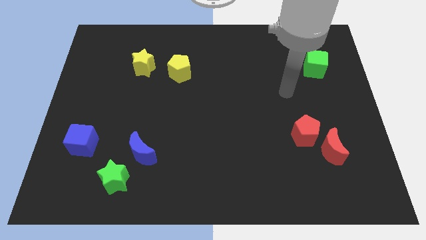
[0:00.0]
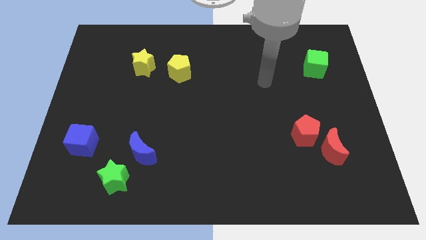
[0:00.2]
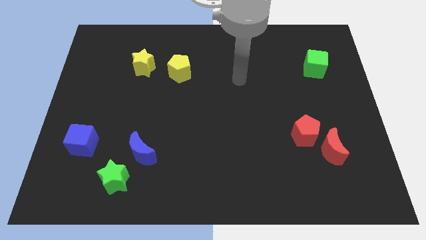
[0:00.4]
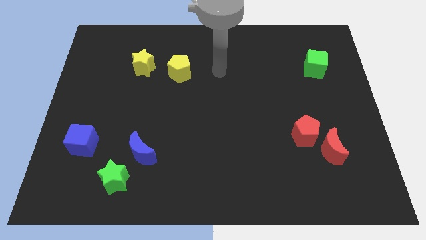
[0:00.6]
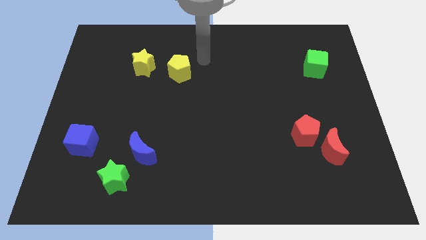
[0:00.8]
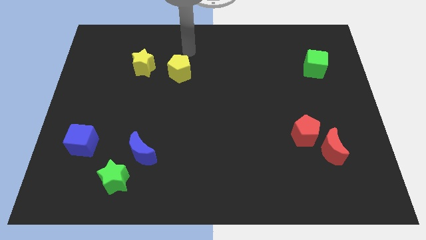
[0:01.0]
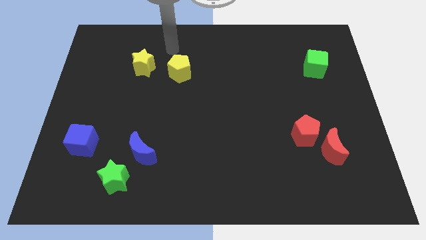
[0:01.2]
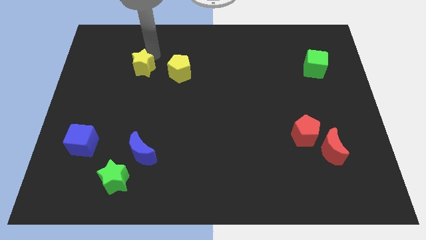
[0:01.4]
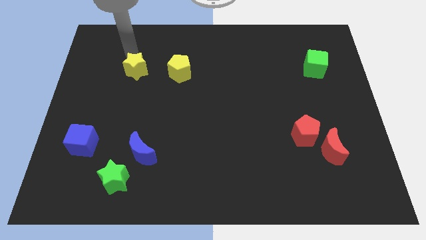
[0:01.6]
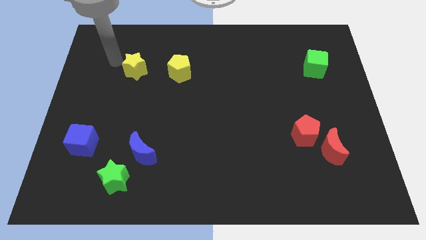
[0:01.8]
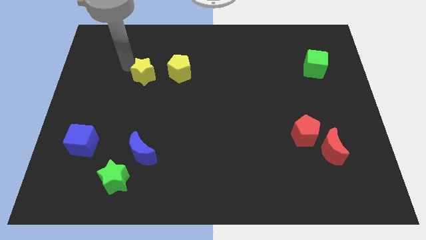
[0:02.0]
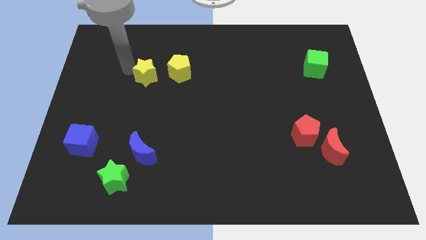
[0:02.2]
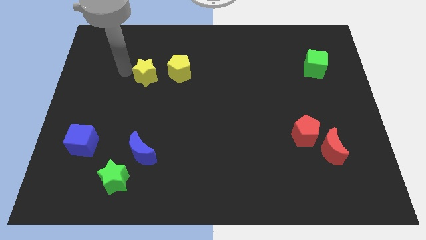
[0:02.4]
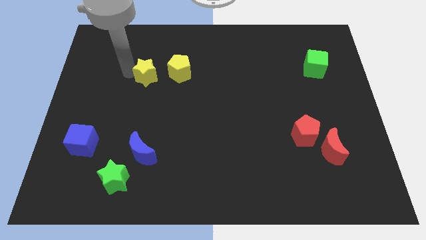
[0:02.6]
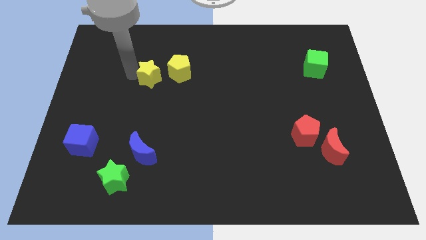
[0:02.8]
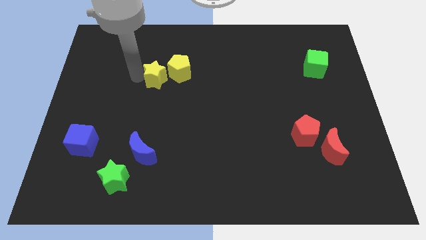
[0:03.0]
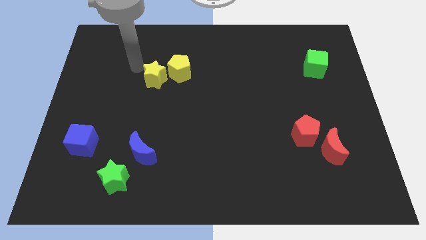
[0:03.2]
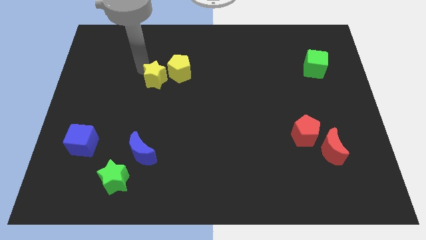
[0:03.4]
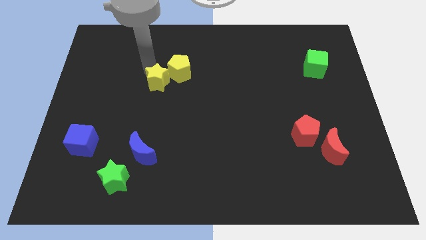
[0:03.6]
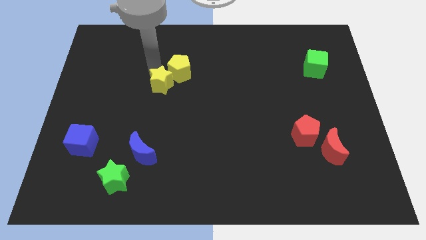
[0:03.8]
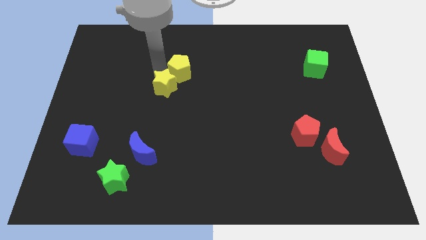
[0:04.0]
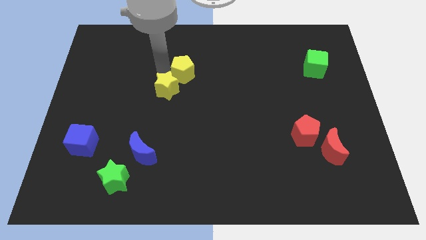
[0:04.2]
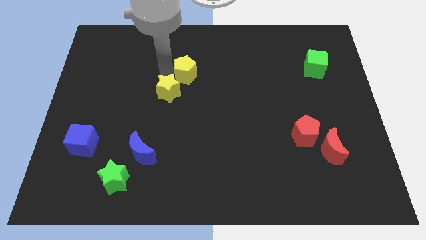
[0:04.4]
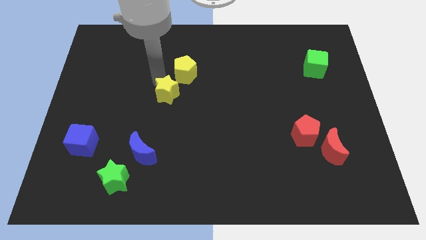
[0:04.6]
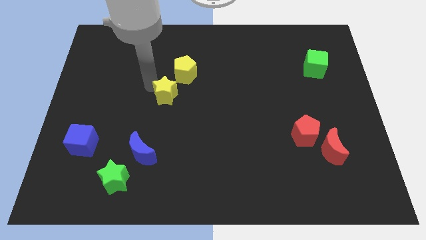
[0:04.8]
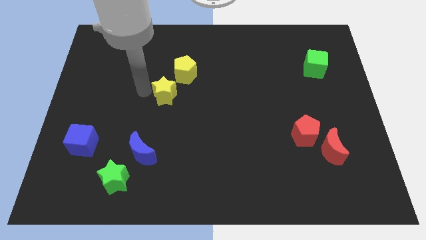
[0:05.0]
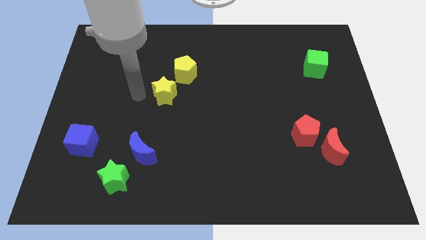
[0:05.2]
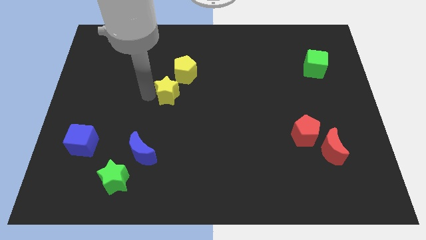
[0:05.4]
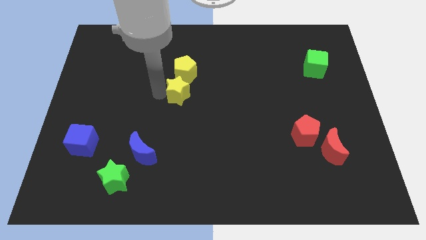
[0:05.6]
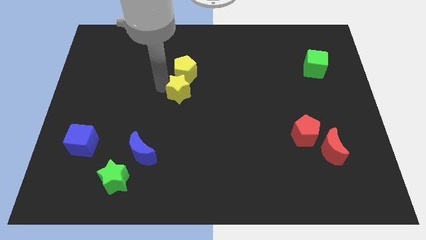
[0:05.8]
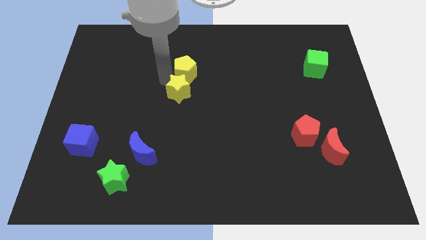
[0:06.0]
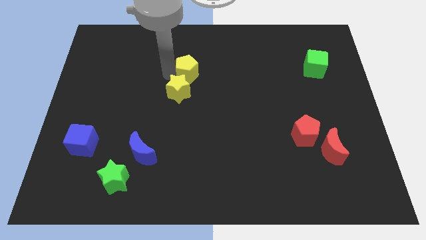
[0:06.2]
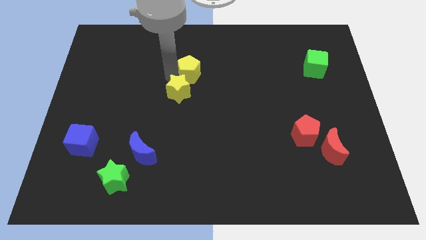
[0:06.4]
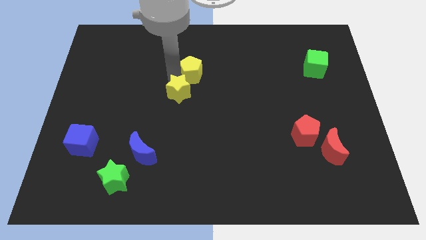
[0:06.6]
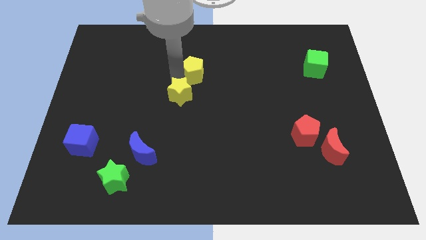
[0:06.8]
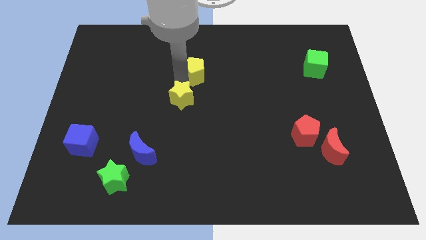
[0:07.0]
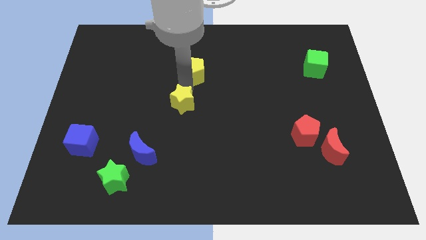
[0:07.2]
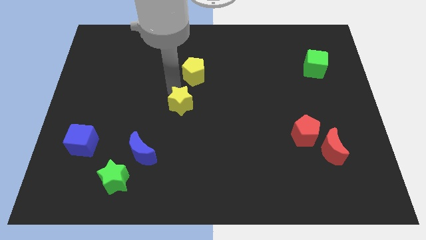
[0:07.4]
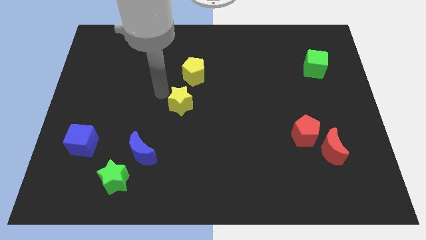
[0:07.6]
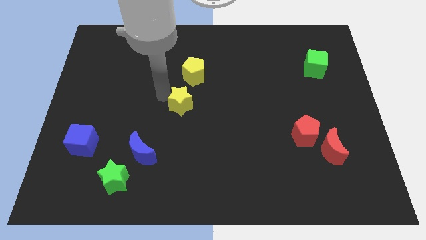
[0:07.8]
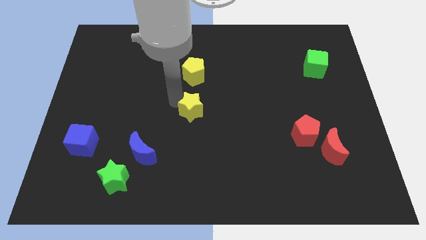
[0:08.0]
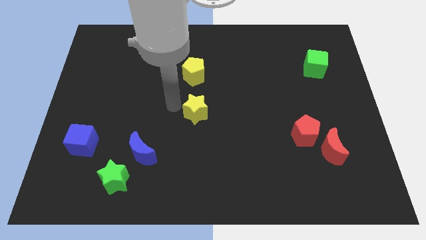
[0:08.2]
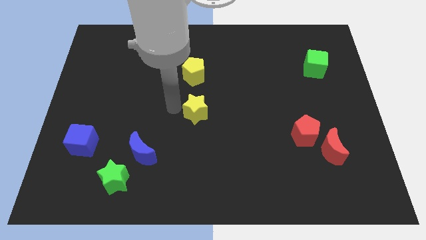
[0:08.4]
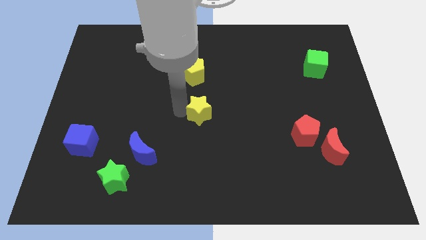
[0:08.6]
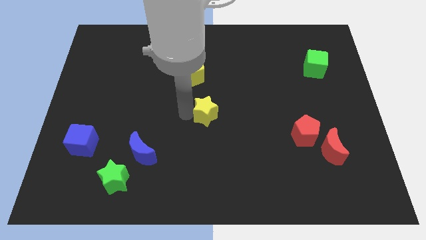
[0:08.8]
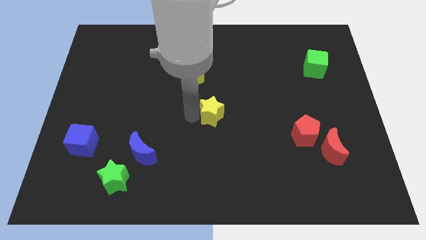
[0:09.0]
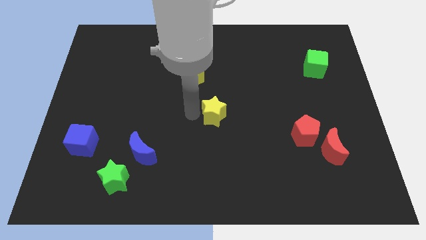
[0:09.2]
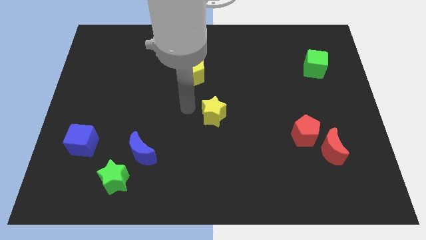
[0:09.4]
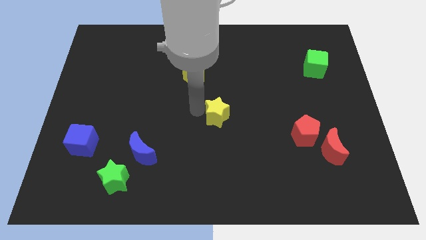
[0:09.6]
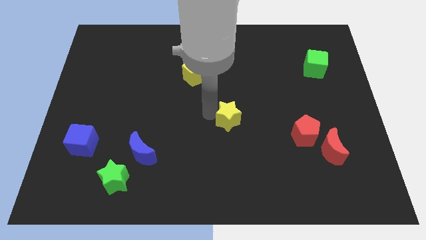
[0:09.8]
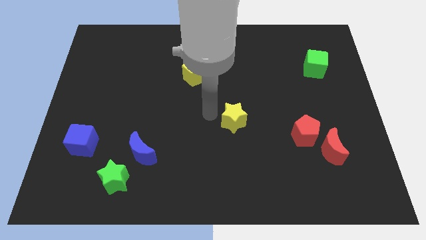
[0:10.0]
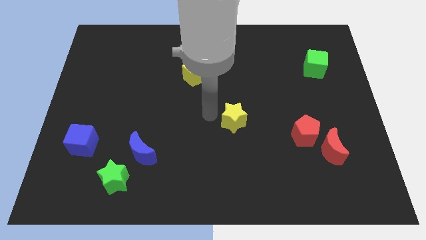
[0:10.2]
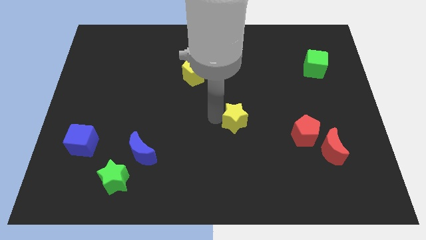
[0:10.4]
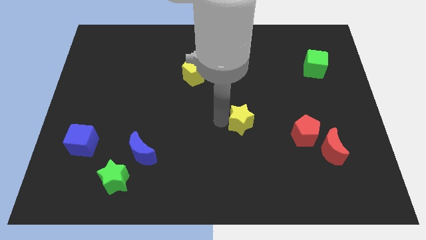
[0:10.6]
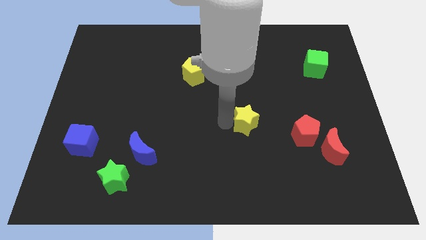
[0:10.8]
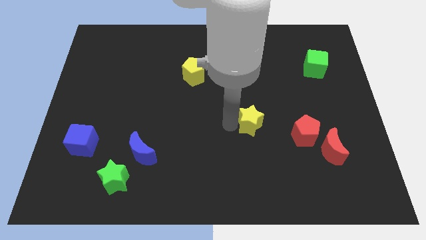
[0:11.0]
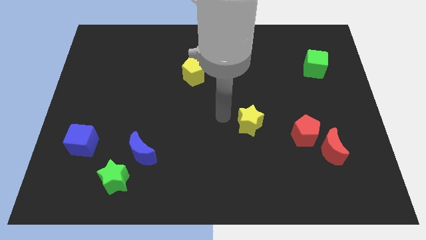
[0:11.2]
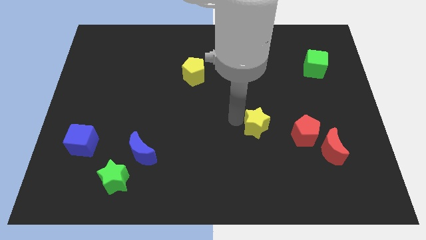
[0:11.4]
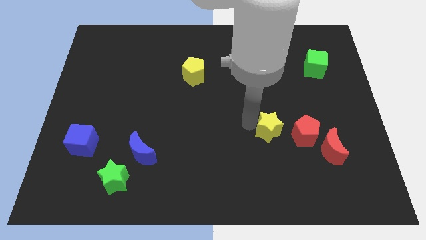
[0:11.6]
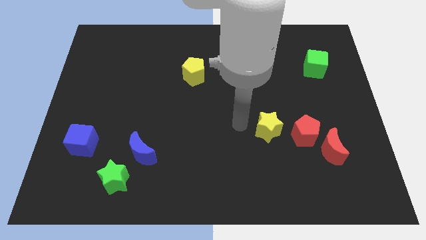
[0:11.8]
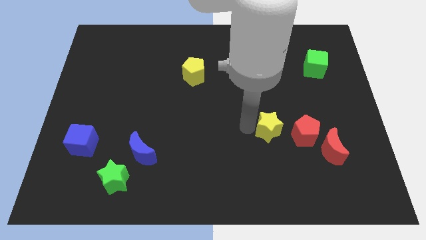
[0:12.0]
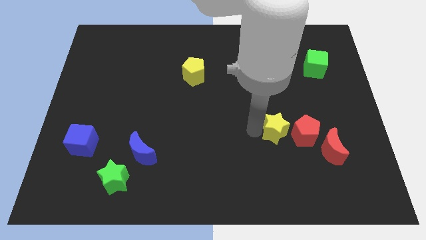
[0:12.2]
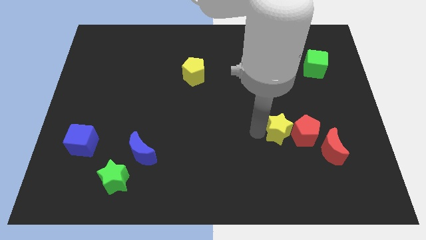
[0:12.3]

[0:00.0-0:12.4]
put the yellow star towards the red pentagon

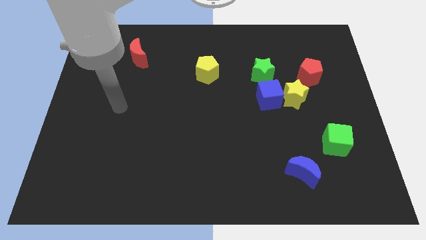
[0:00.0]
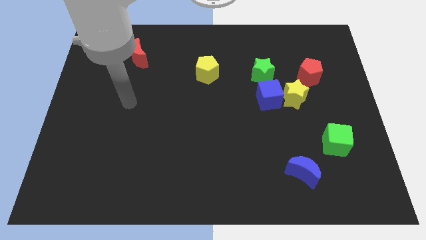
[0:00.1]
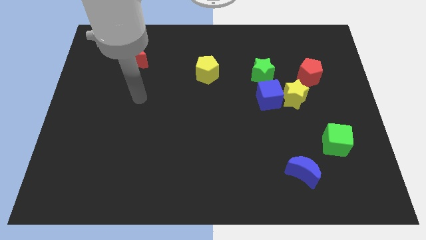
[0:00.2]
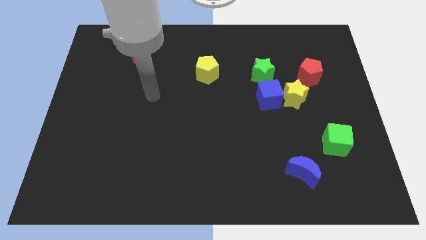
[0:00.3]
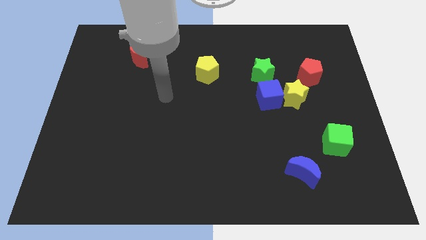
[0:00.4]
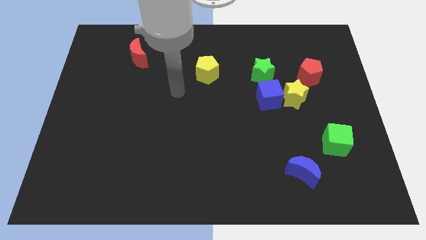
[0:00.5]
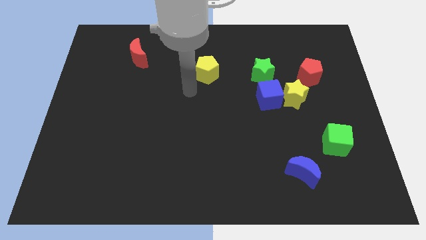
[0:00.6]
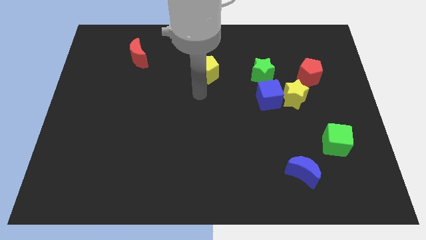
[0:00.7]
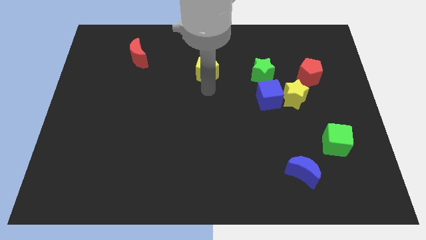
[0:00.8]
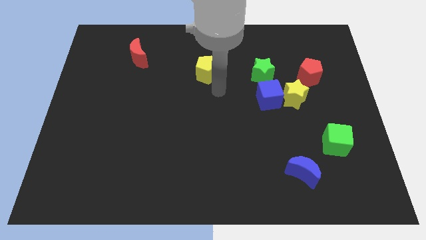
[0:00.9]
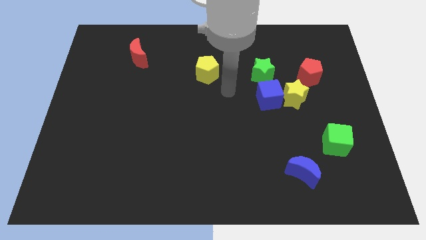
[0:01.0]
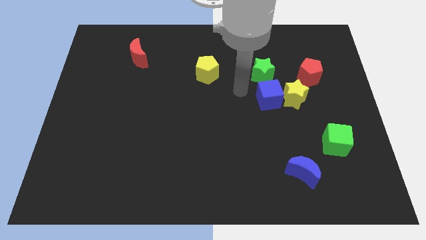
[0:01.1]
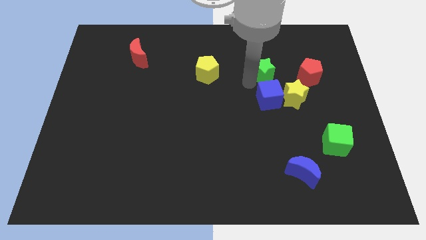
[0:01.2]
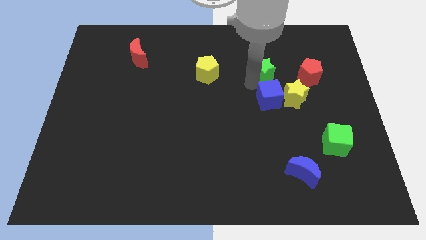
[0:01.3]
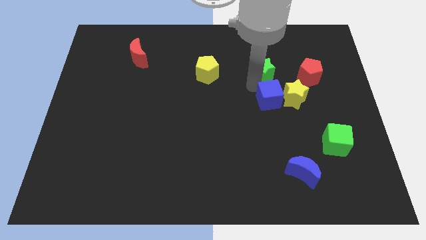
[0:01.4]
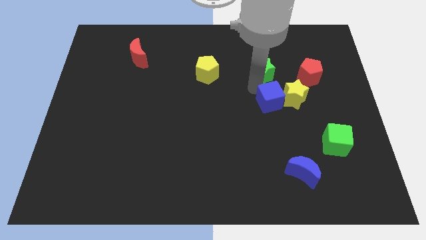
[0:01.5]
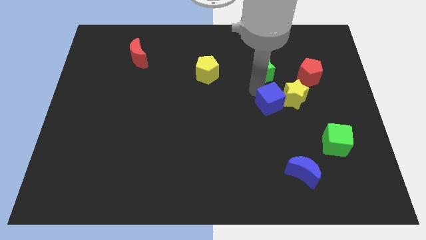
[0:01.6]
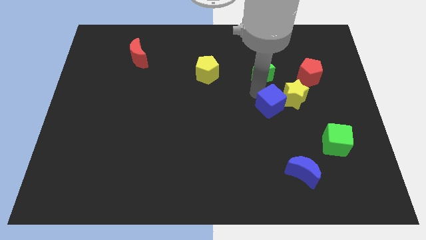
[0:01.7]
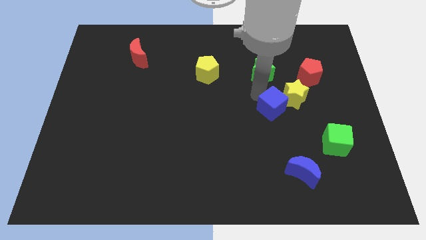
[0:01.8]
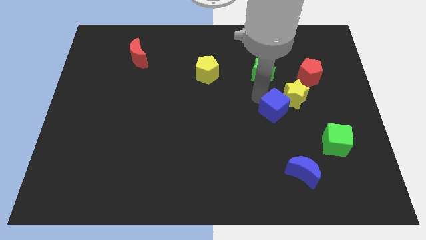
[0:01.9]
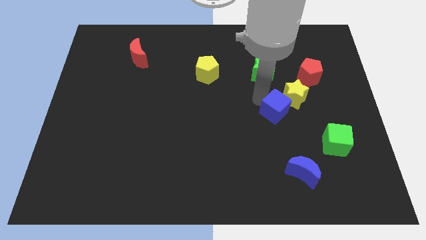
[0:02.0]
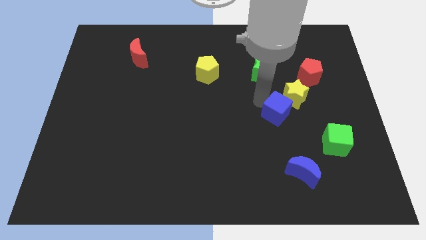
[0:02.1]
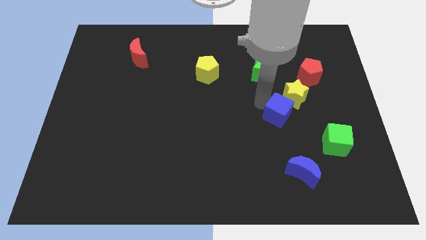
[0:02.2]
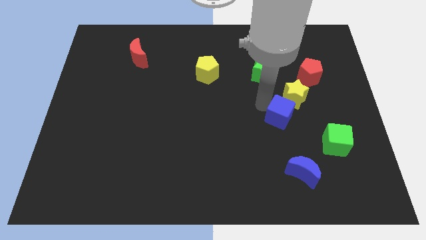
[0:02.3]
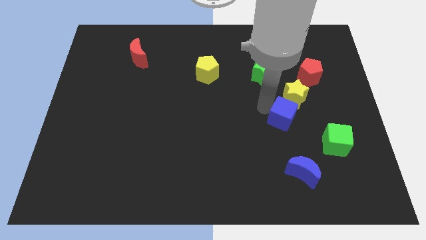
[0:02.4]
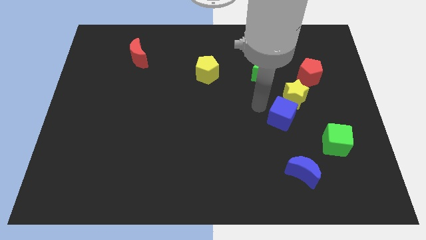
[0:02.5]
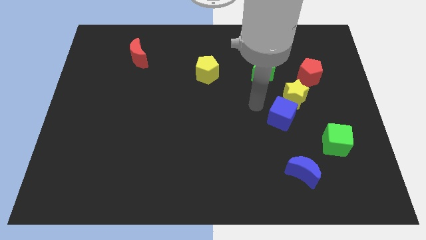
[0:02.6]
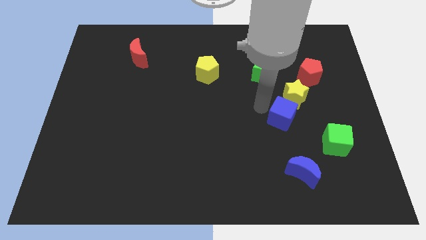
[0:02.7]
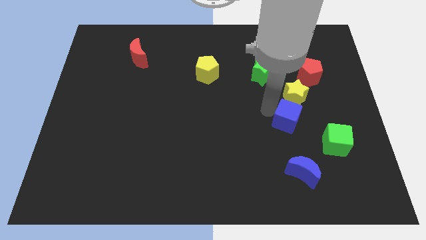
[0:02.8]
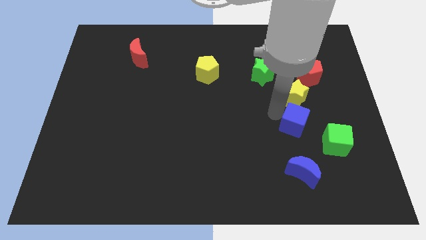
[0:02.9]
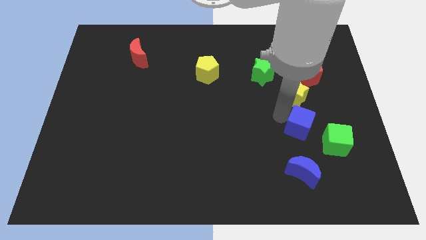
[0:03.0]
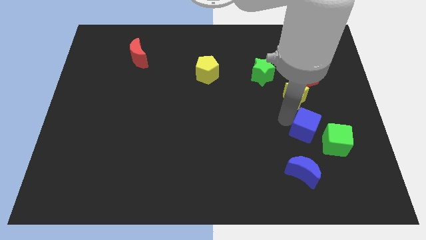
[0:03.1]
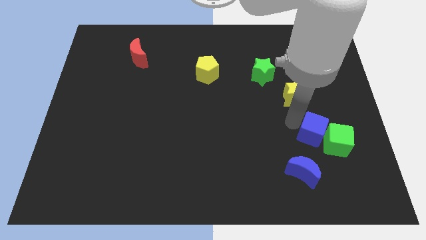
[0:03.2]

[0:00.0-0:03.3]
slide the blue cube to the green cube
